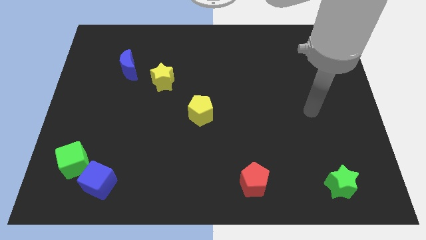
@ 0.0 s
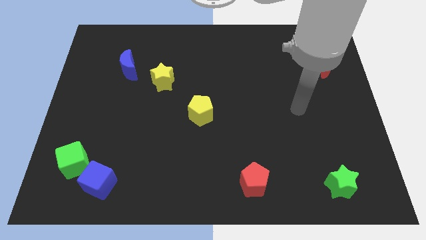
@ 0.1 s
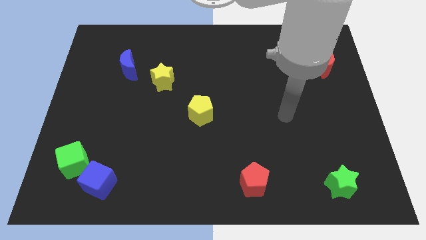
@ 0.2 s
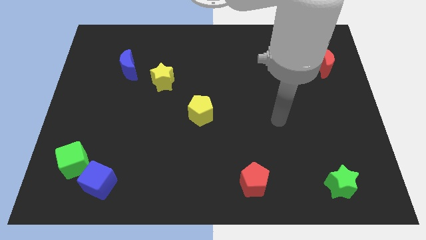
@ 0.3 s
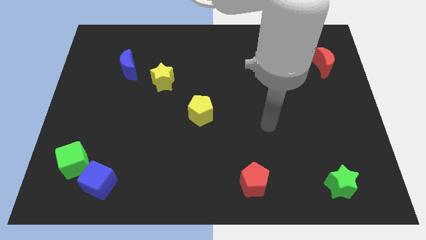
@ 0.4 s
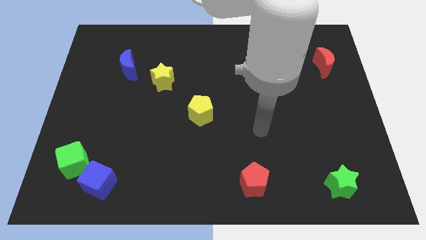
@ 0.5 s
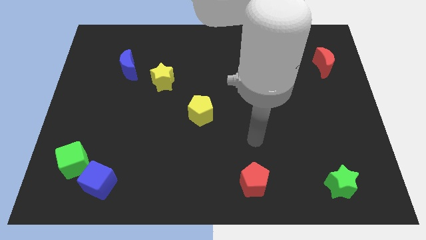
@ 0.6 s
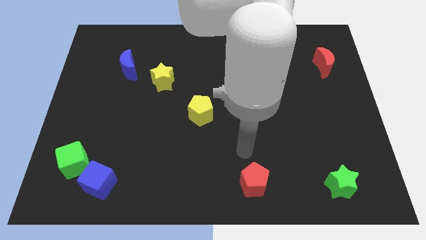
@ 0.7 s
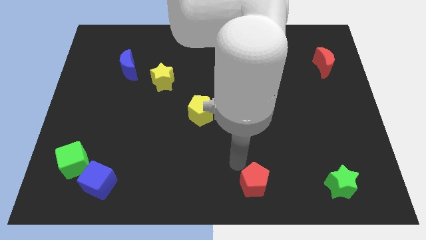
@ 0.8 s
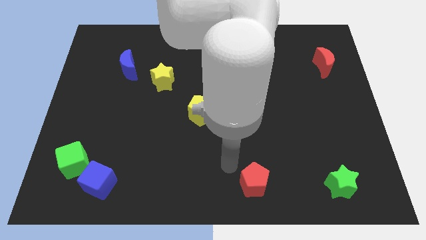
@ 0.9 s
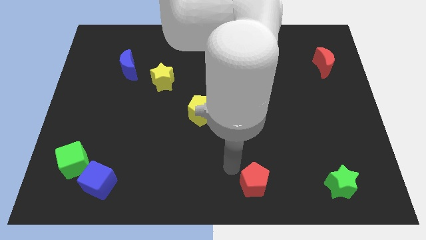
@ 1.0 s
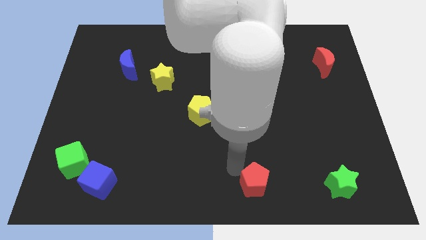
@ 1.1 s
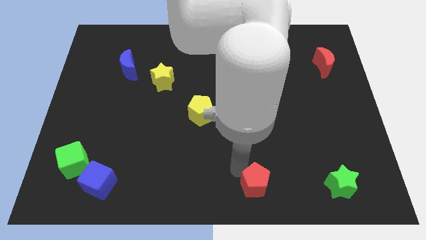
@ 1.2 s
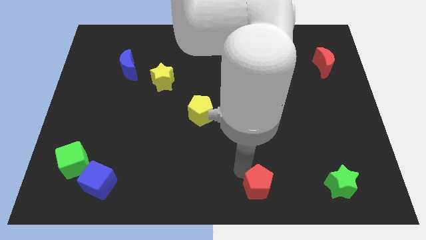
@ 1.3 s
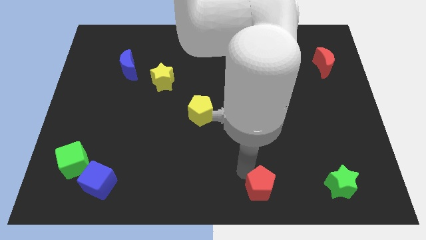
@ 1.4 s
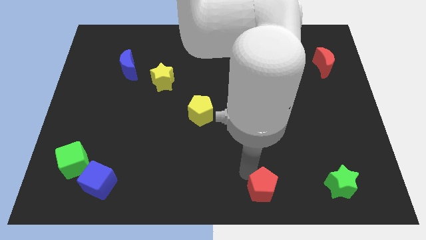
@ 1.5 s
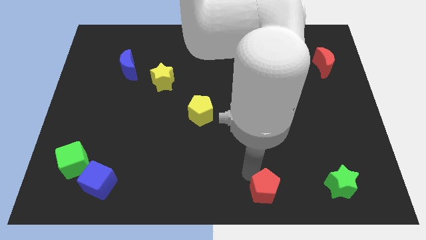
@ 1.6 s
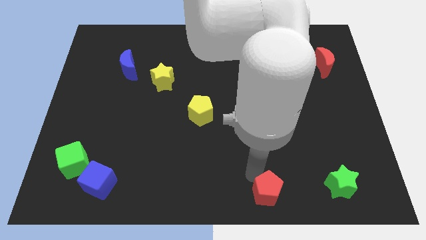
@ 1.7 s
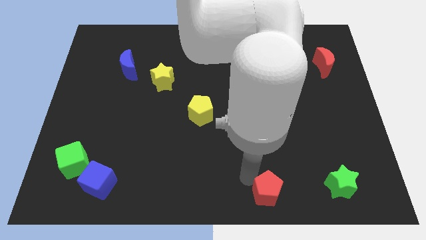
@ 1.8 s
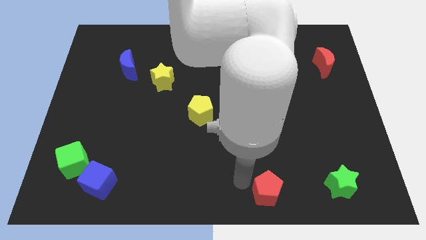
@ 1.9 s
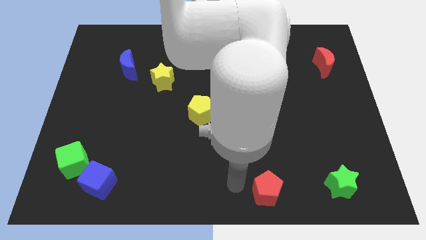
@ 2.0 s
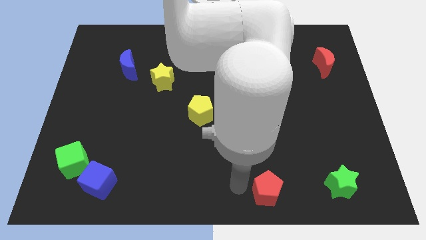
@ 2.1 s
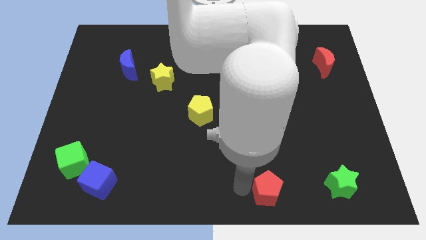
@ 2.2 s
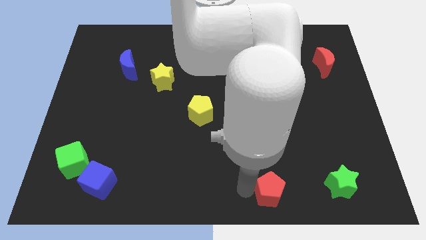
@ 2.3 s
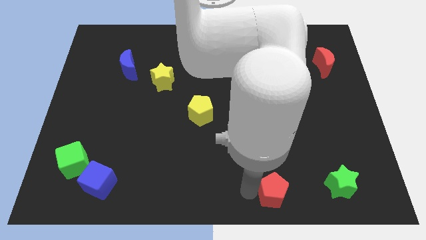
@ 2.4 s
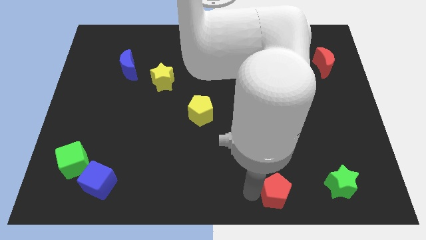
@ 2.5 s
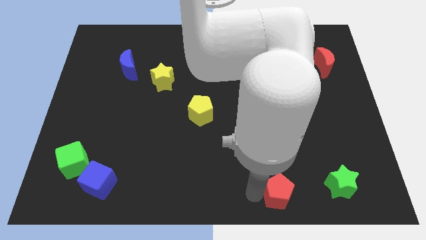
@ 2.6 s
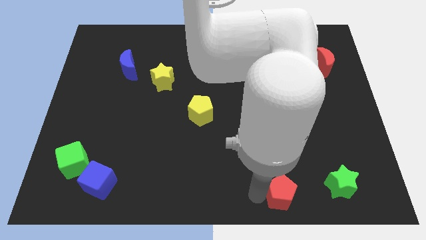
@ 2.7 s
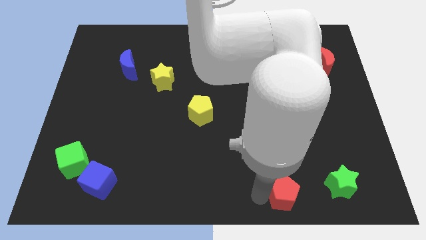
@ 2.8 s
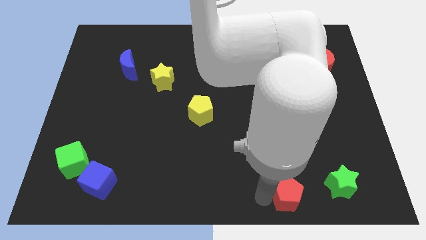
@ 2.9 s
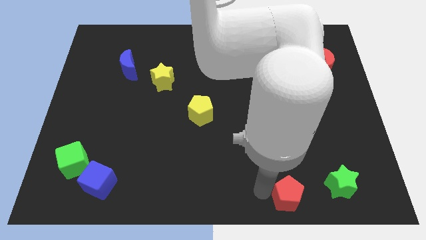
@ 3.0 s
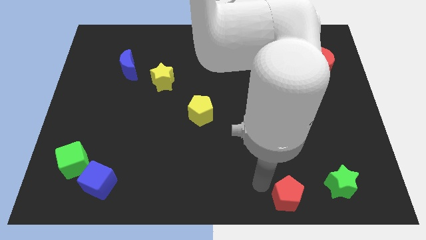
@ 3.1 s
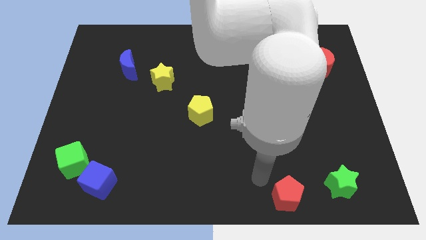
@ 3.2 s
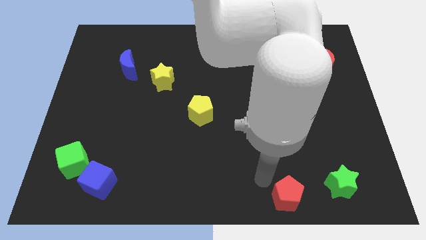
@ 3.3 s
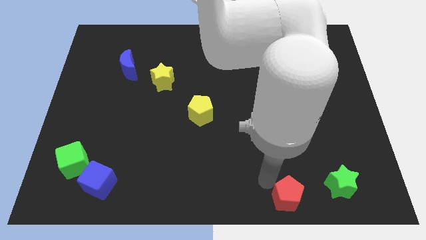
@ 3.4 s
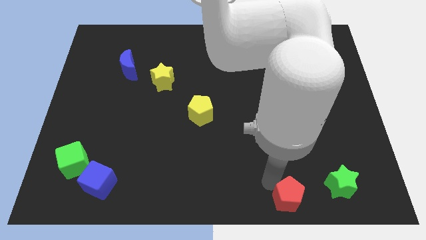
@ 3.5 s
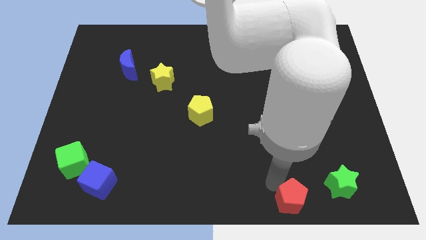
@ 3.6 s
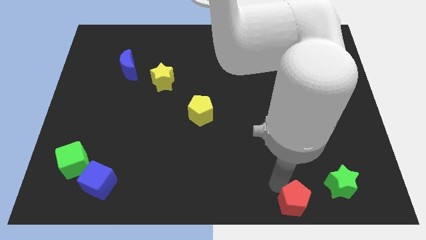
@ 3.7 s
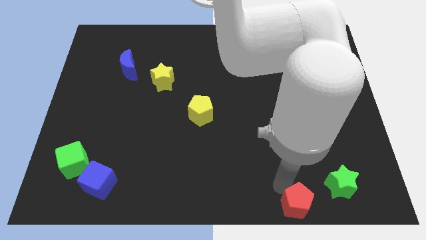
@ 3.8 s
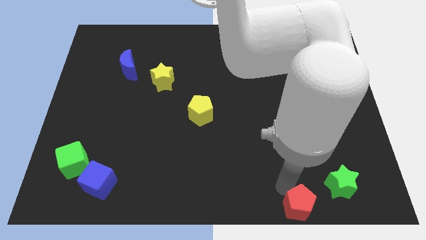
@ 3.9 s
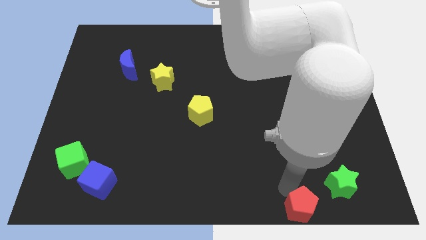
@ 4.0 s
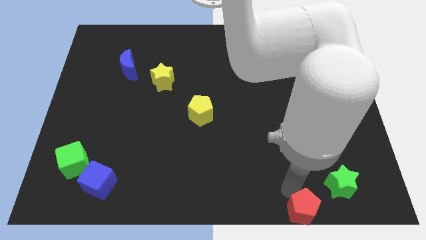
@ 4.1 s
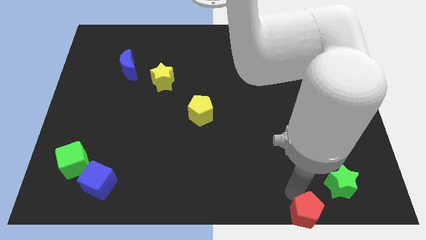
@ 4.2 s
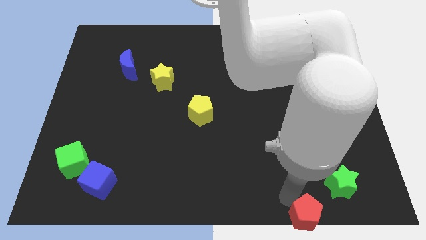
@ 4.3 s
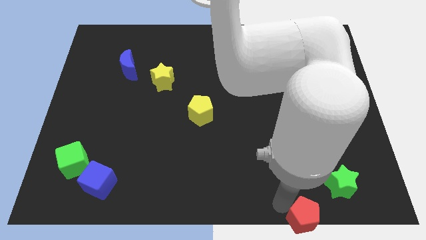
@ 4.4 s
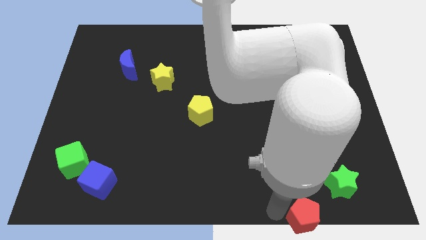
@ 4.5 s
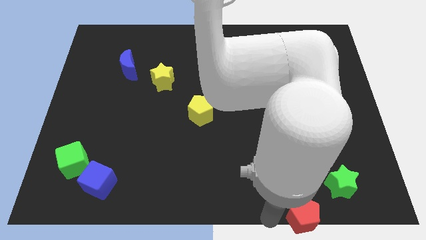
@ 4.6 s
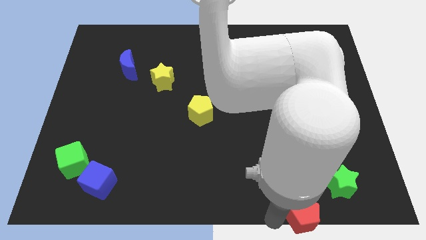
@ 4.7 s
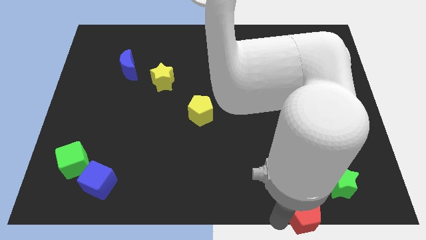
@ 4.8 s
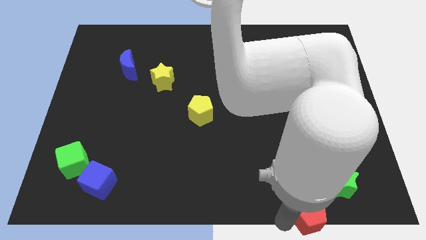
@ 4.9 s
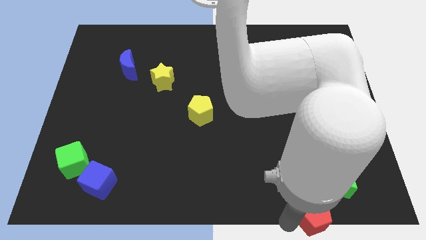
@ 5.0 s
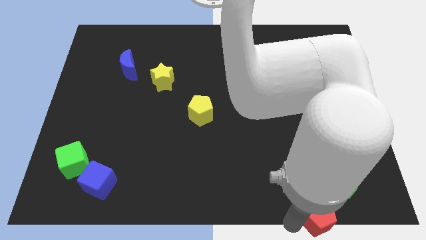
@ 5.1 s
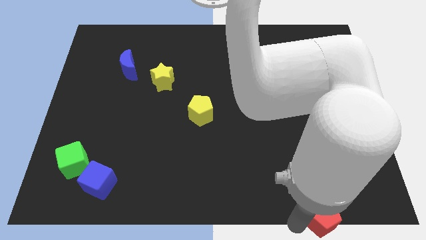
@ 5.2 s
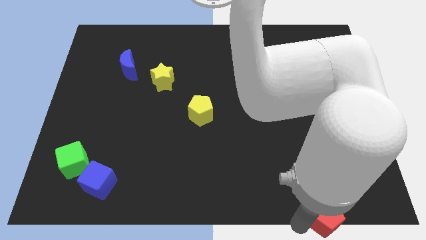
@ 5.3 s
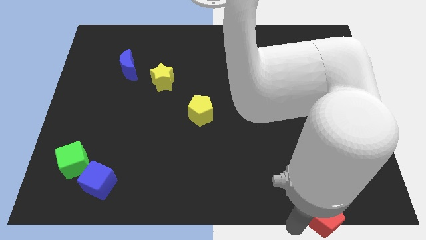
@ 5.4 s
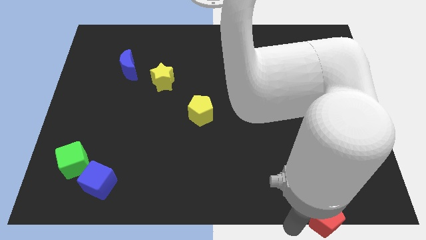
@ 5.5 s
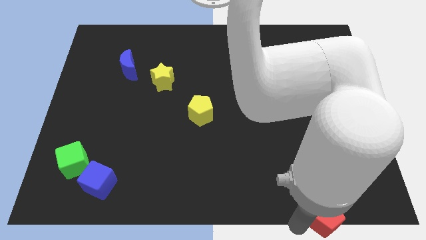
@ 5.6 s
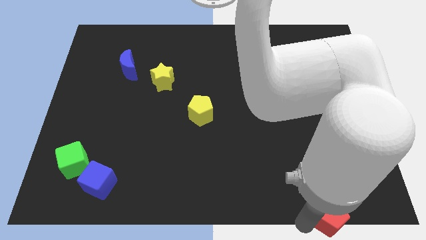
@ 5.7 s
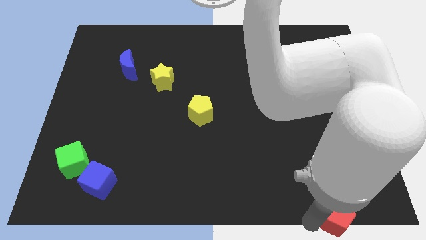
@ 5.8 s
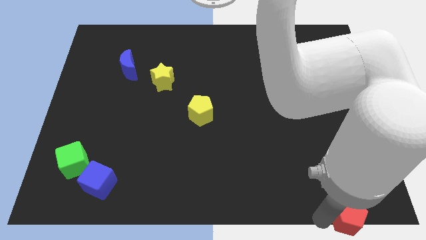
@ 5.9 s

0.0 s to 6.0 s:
push the red pentagon to the bottom right

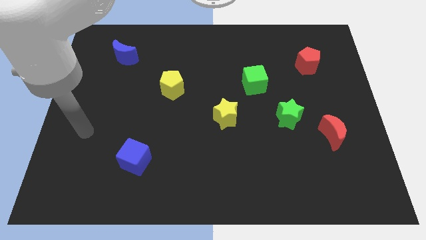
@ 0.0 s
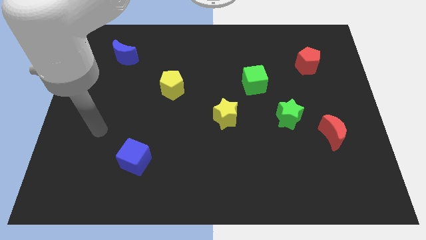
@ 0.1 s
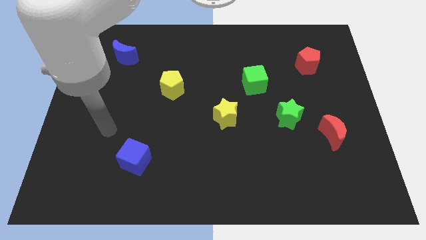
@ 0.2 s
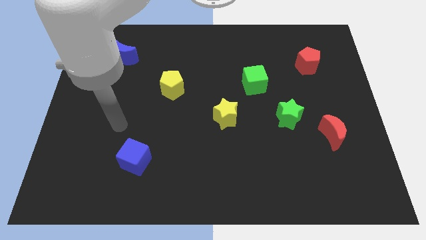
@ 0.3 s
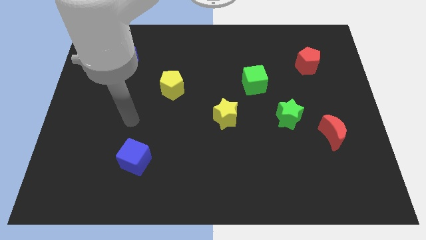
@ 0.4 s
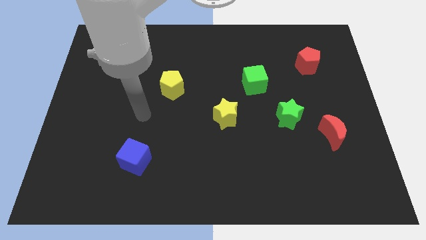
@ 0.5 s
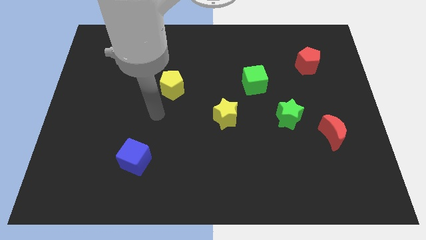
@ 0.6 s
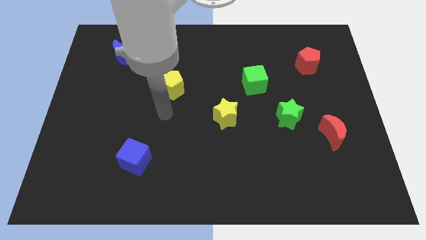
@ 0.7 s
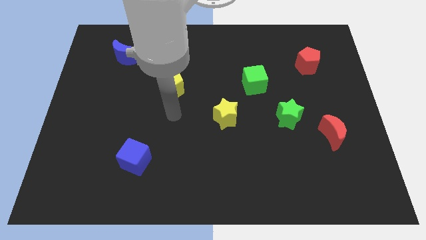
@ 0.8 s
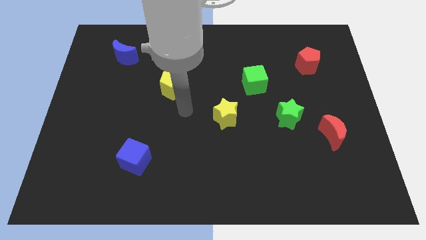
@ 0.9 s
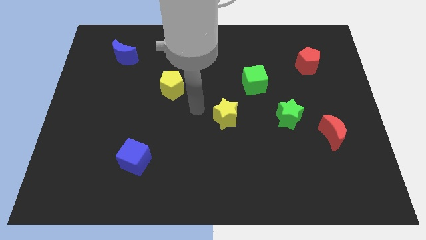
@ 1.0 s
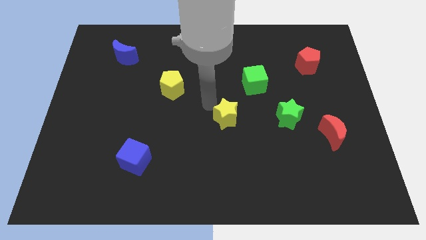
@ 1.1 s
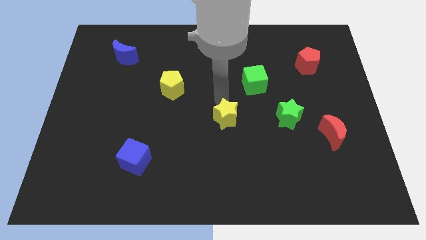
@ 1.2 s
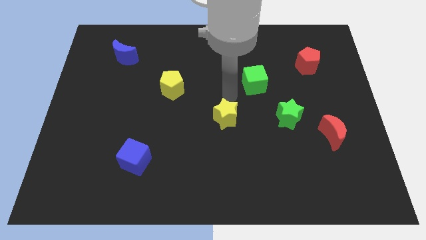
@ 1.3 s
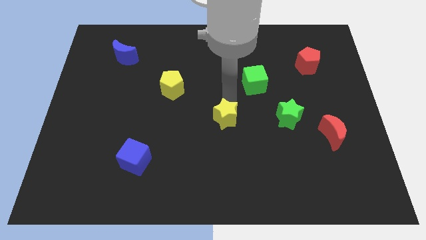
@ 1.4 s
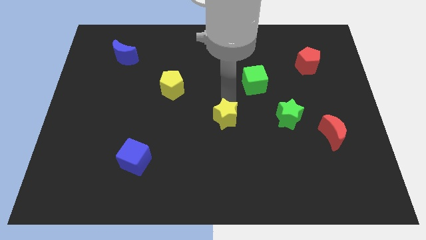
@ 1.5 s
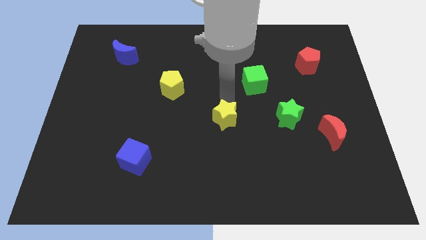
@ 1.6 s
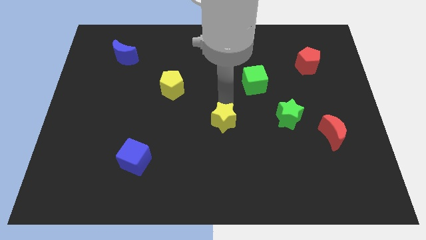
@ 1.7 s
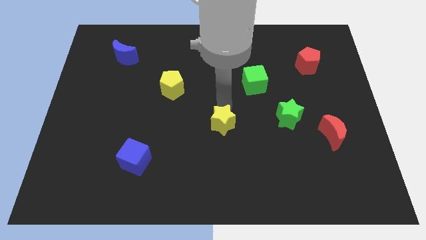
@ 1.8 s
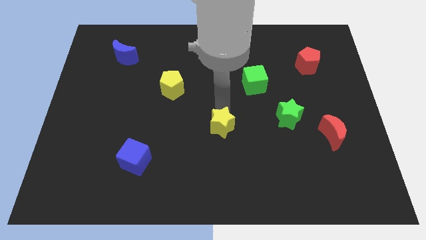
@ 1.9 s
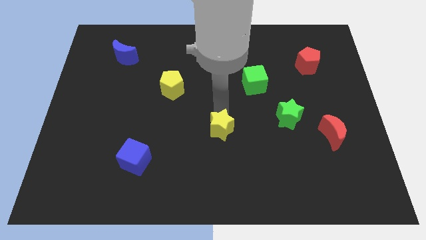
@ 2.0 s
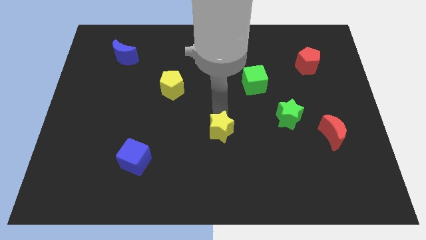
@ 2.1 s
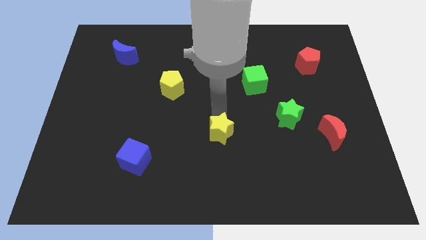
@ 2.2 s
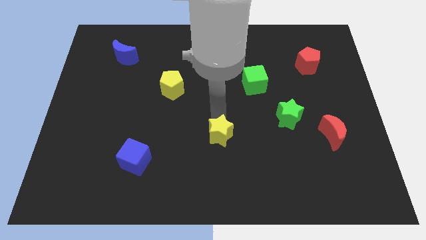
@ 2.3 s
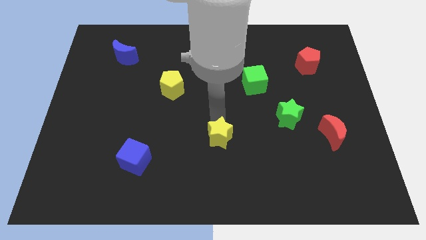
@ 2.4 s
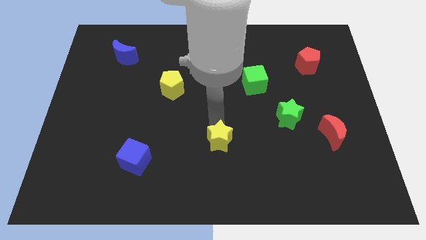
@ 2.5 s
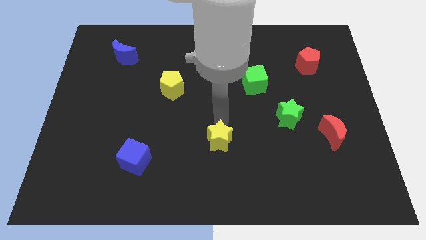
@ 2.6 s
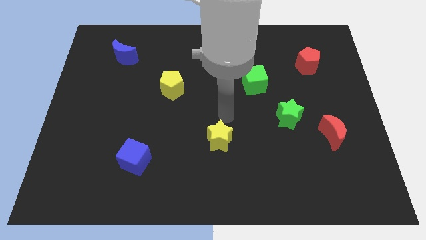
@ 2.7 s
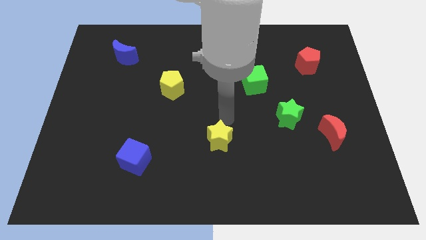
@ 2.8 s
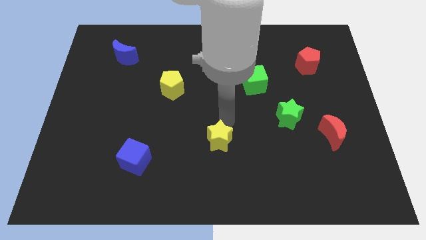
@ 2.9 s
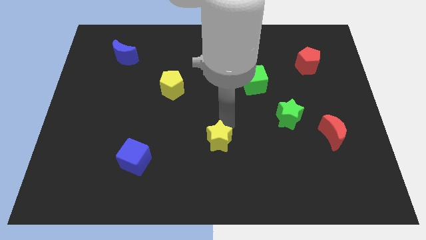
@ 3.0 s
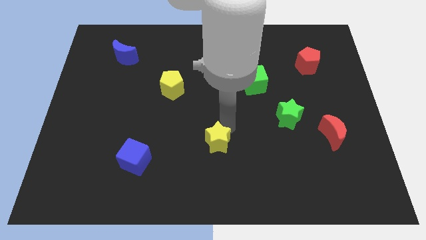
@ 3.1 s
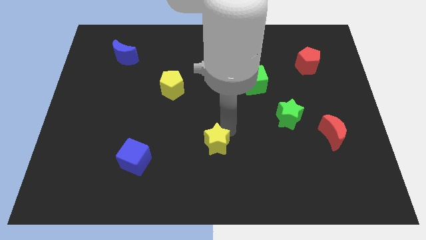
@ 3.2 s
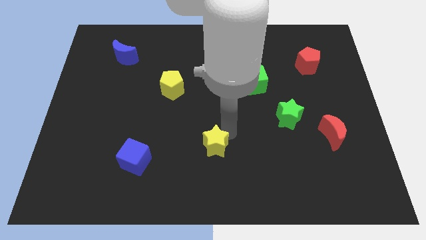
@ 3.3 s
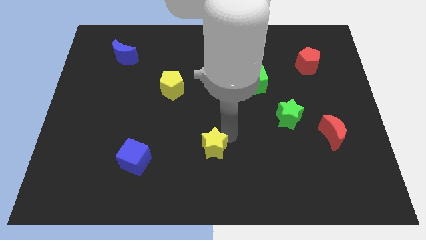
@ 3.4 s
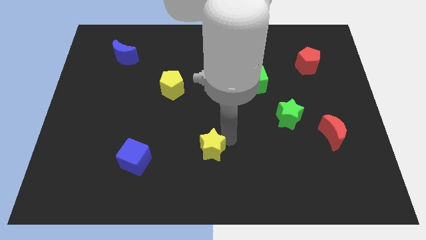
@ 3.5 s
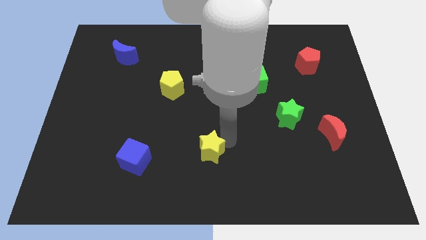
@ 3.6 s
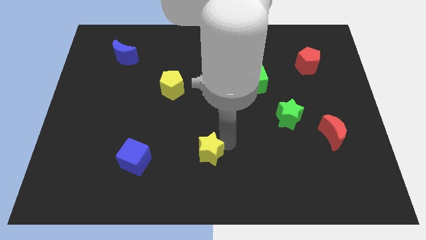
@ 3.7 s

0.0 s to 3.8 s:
put the yellow star to the bottom side
